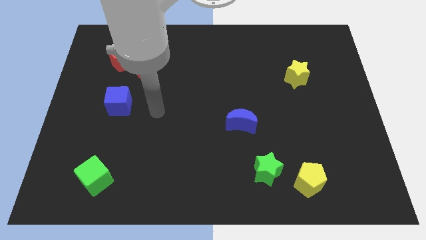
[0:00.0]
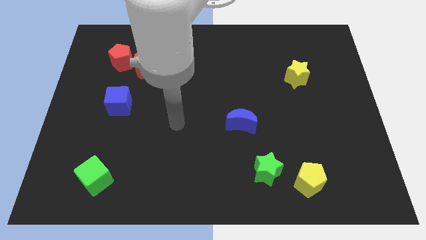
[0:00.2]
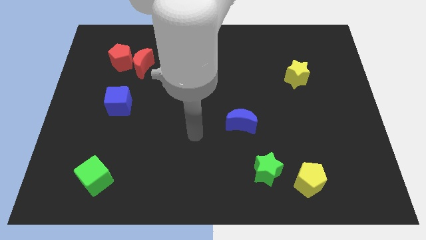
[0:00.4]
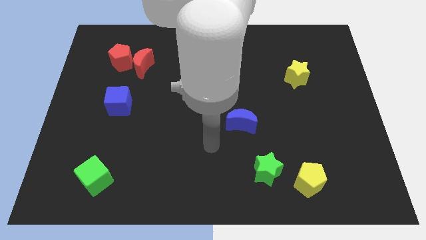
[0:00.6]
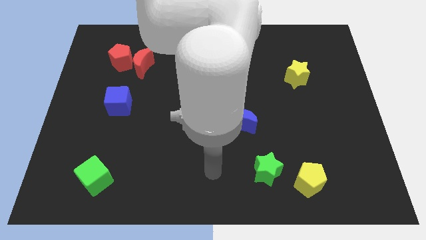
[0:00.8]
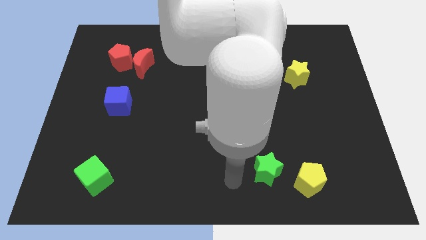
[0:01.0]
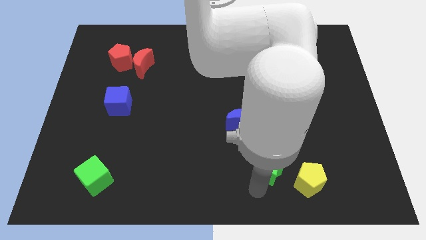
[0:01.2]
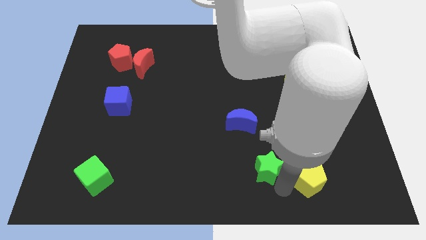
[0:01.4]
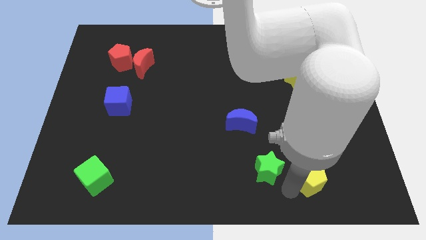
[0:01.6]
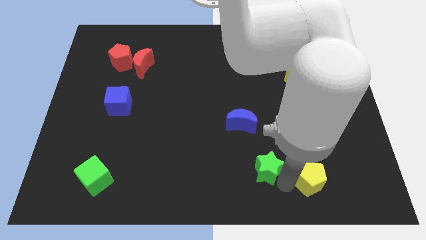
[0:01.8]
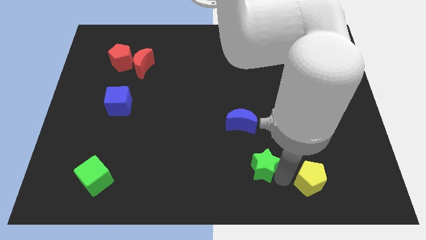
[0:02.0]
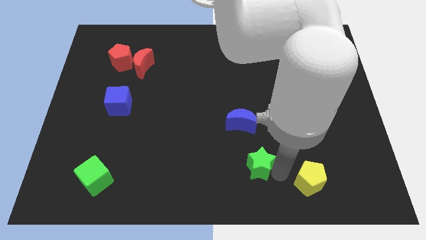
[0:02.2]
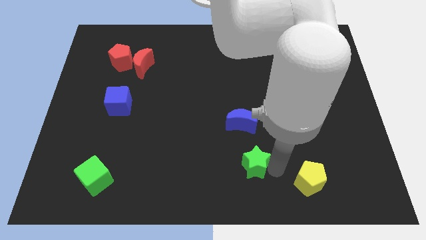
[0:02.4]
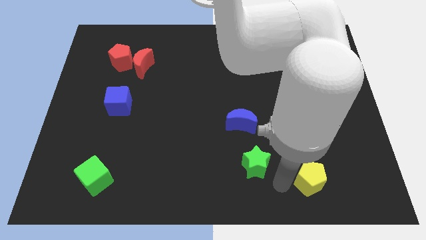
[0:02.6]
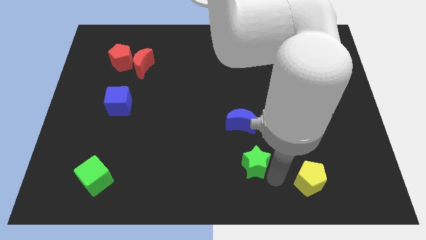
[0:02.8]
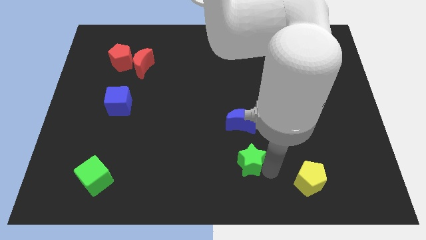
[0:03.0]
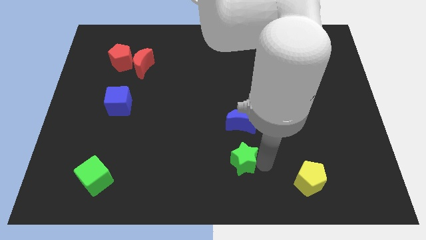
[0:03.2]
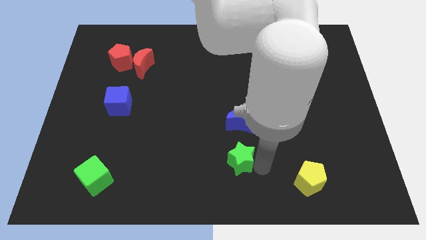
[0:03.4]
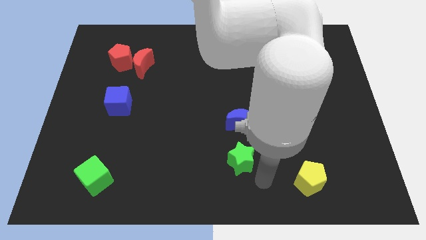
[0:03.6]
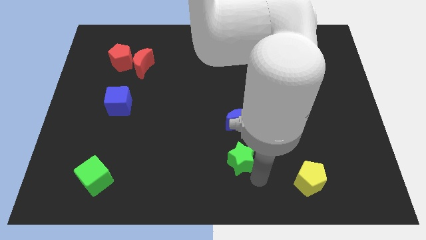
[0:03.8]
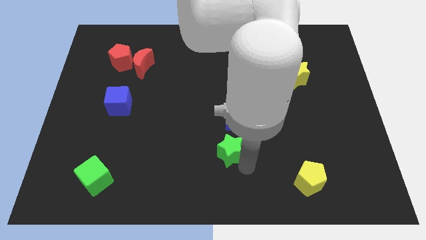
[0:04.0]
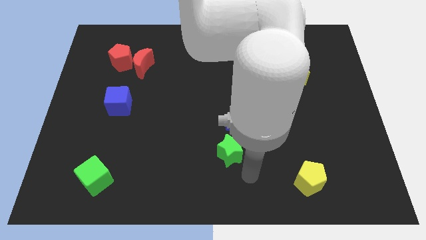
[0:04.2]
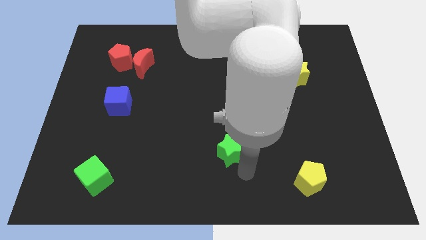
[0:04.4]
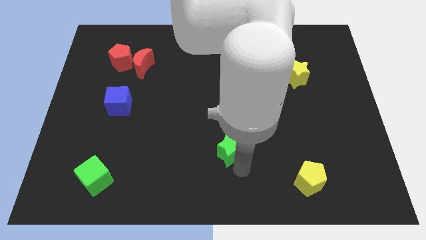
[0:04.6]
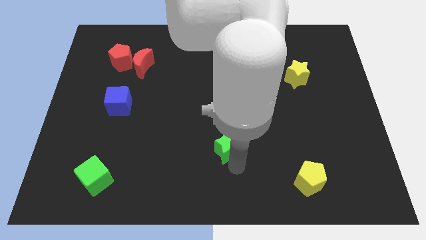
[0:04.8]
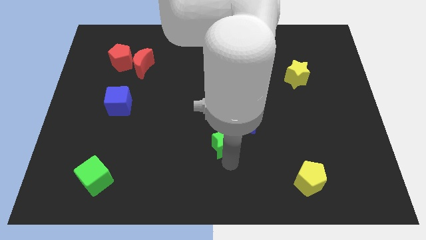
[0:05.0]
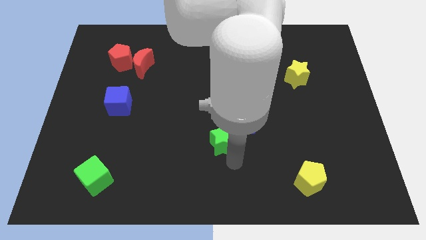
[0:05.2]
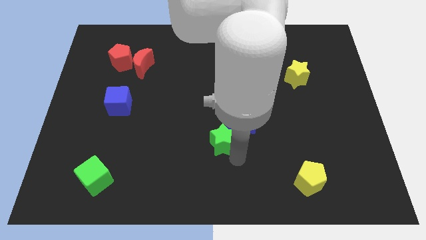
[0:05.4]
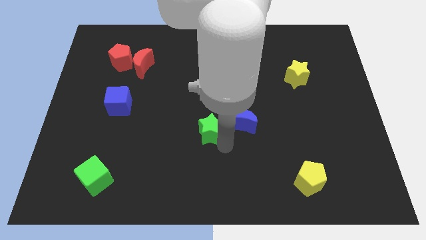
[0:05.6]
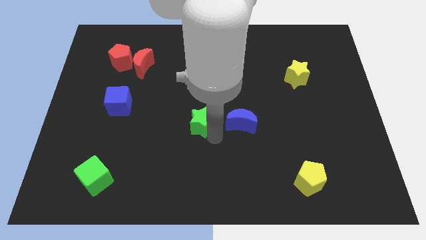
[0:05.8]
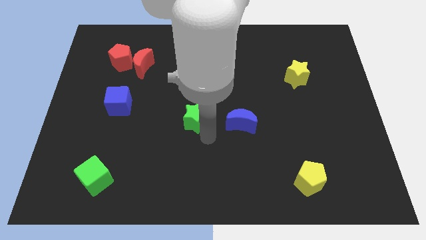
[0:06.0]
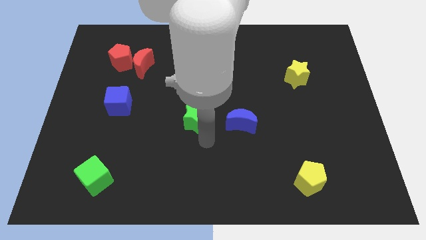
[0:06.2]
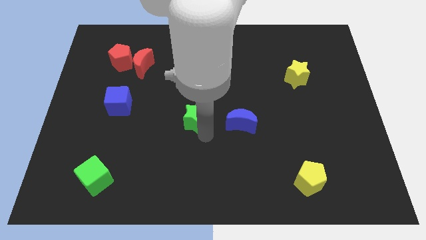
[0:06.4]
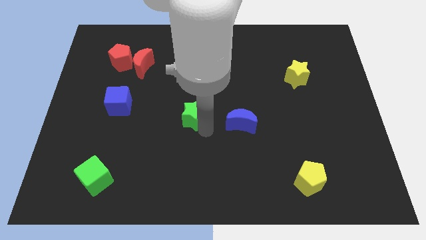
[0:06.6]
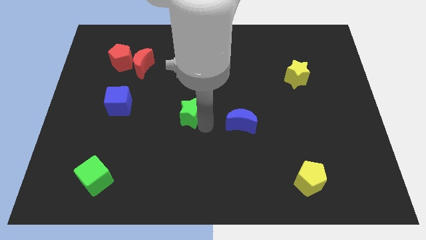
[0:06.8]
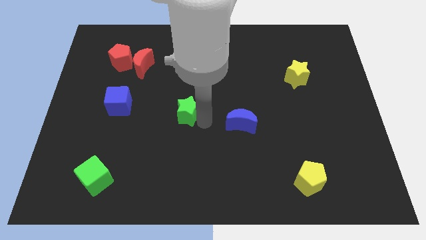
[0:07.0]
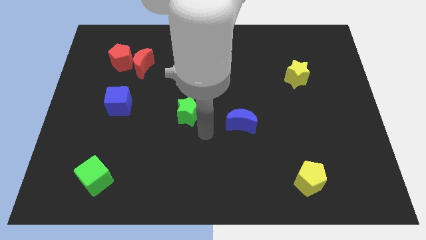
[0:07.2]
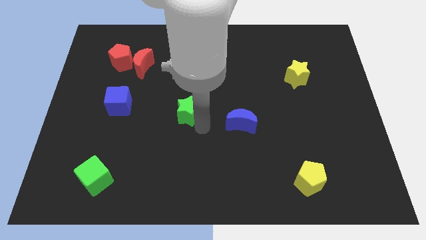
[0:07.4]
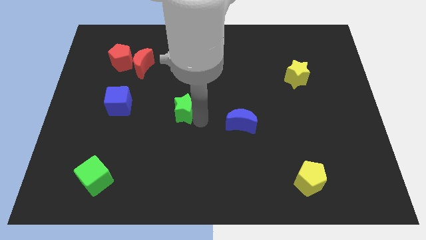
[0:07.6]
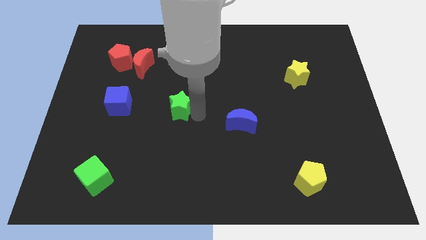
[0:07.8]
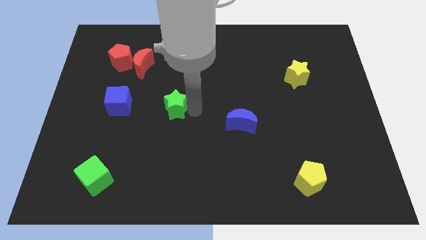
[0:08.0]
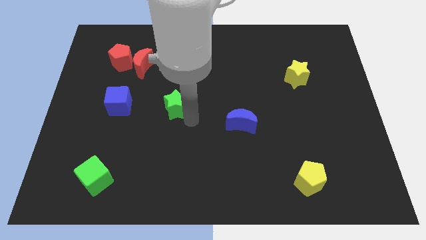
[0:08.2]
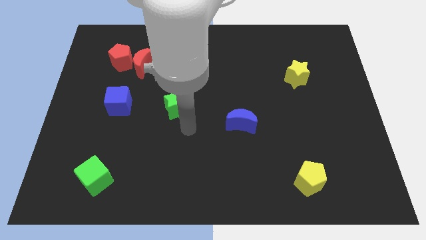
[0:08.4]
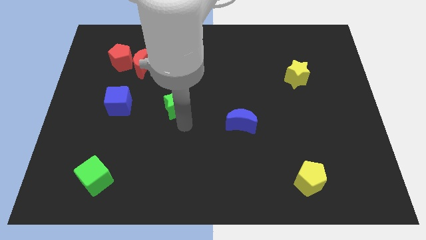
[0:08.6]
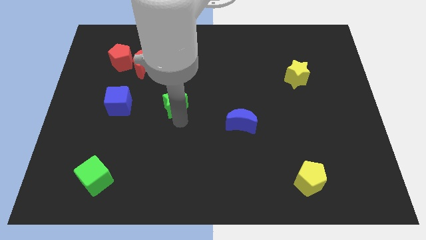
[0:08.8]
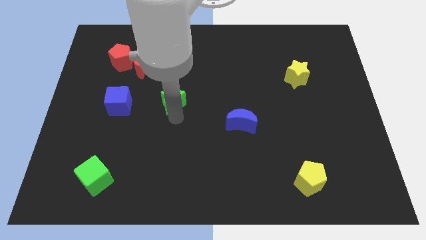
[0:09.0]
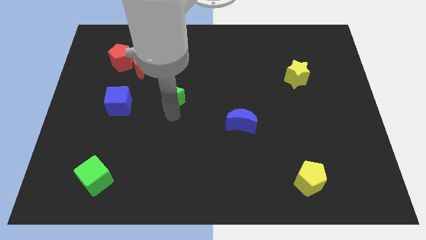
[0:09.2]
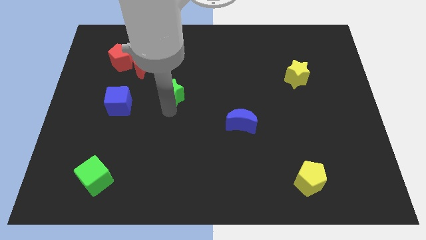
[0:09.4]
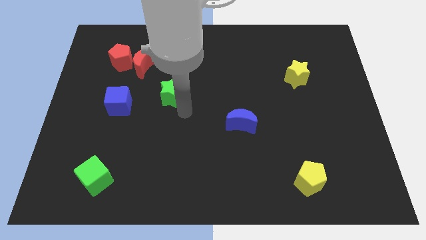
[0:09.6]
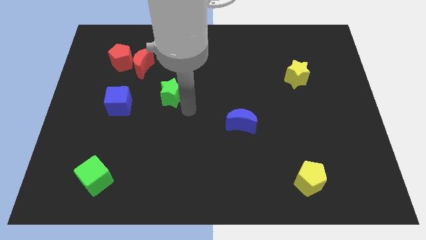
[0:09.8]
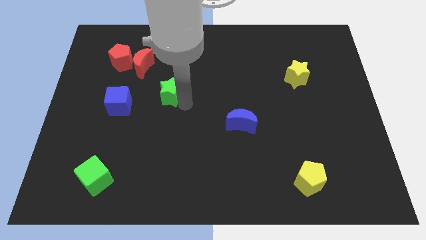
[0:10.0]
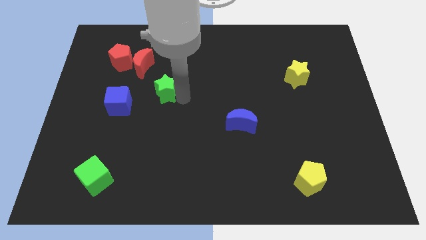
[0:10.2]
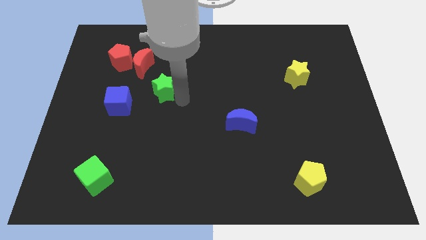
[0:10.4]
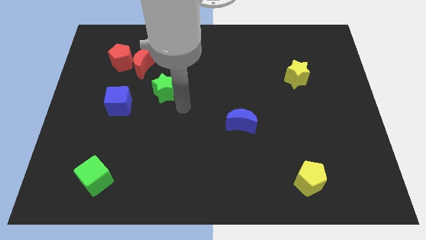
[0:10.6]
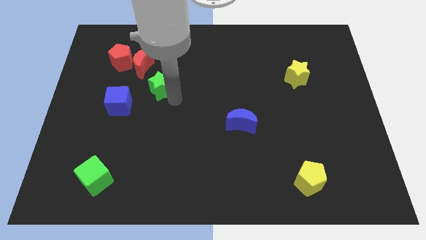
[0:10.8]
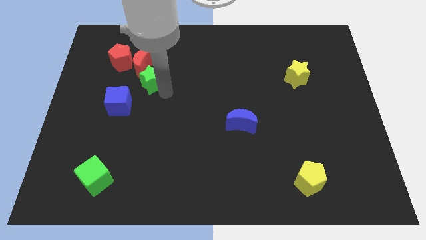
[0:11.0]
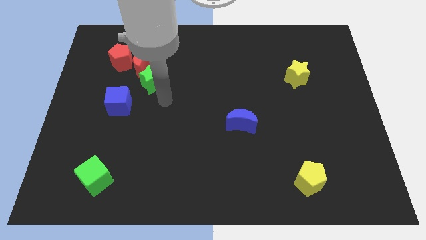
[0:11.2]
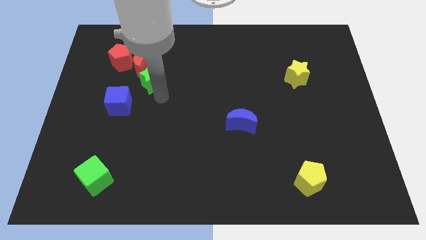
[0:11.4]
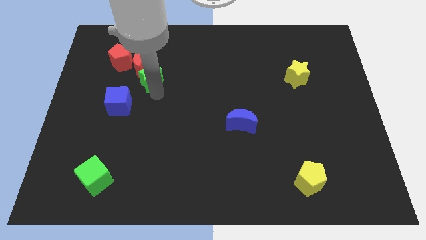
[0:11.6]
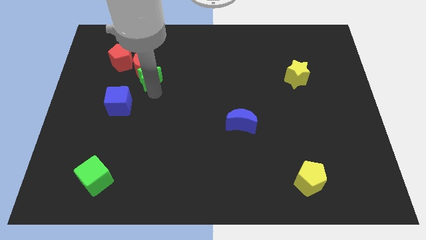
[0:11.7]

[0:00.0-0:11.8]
move the green star to the red moon

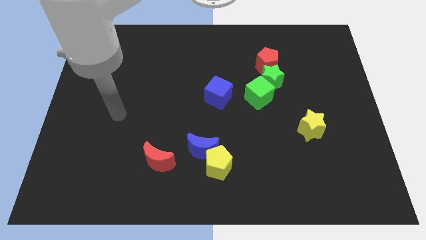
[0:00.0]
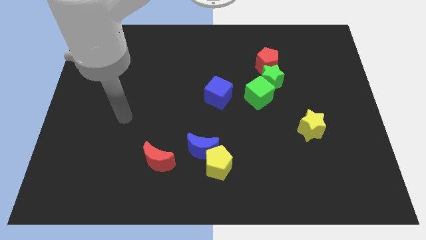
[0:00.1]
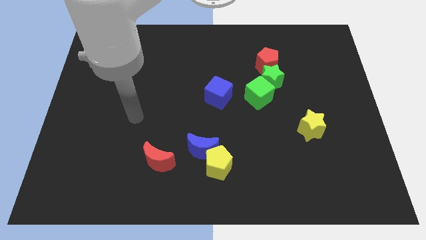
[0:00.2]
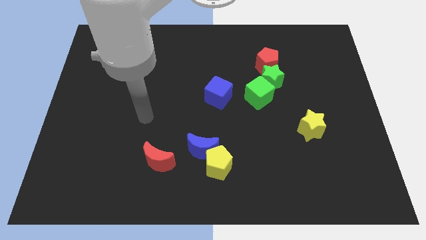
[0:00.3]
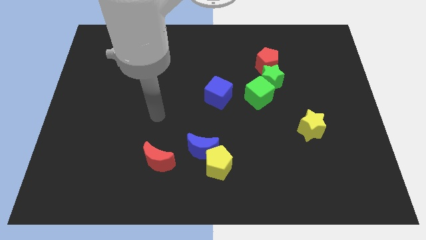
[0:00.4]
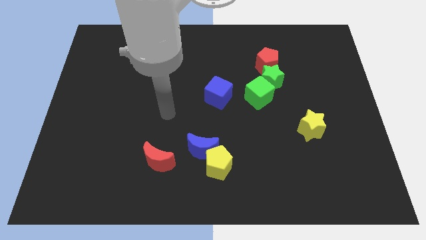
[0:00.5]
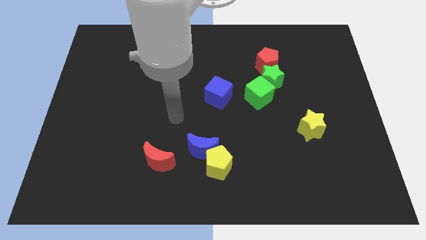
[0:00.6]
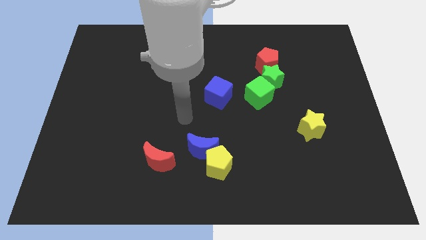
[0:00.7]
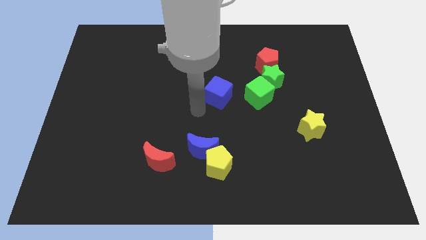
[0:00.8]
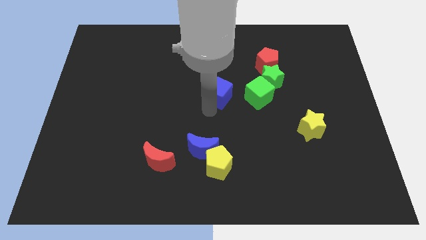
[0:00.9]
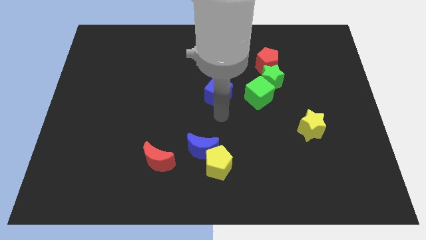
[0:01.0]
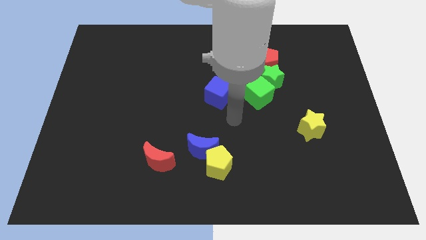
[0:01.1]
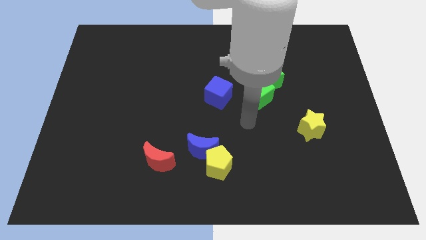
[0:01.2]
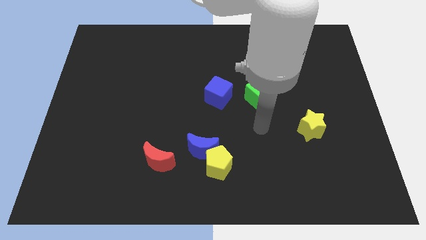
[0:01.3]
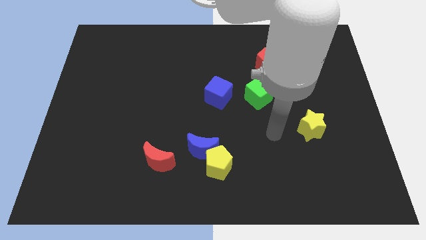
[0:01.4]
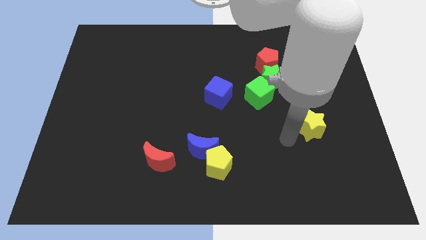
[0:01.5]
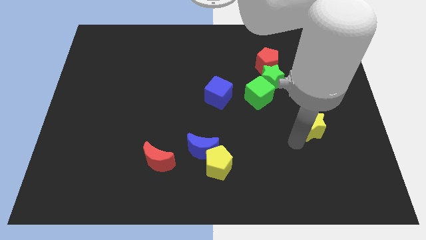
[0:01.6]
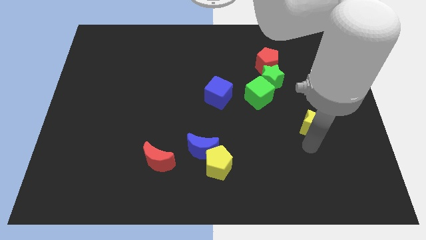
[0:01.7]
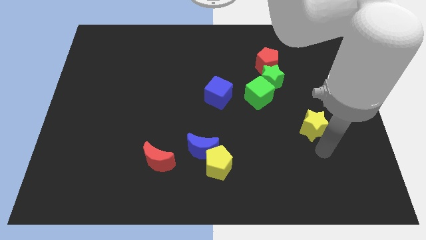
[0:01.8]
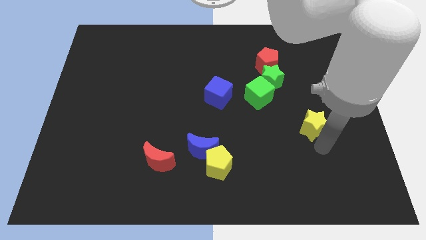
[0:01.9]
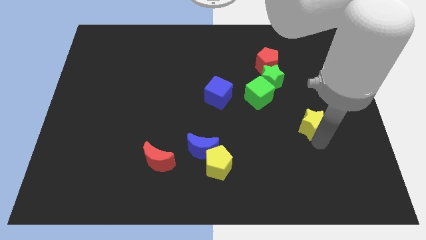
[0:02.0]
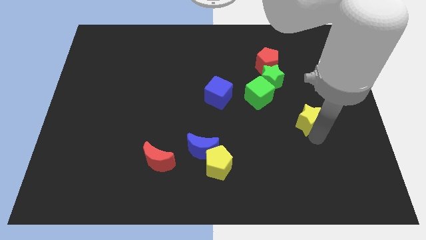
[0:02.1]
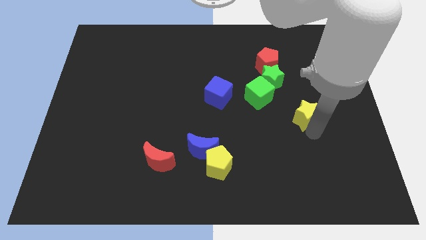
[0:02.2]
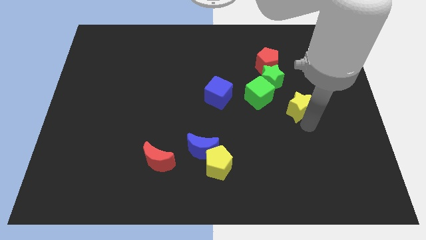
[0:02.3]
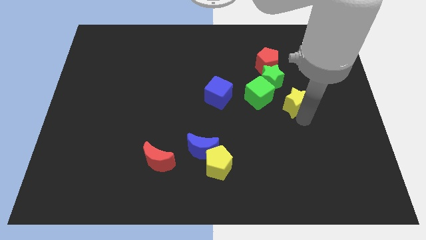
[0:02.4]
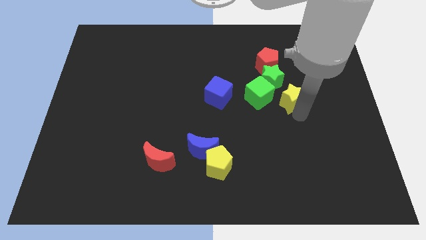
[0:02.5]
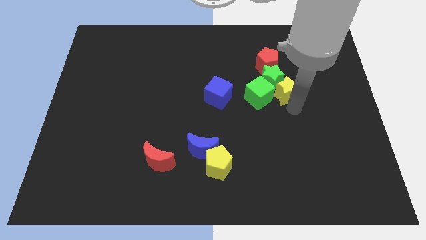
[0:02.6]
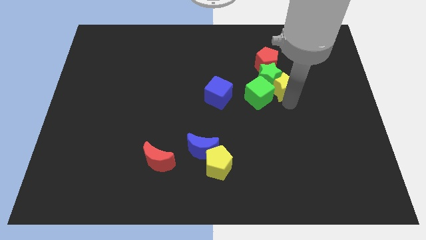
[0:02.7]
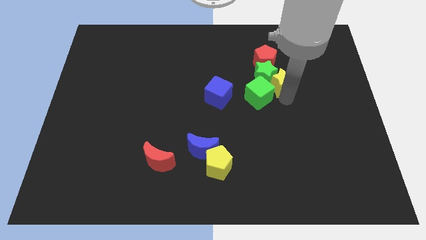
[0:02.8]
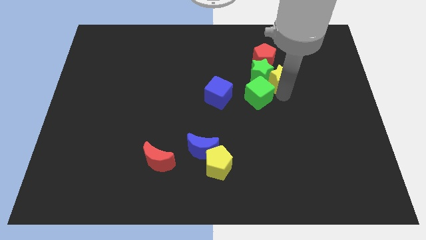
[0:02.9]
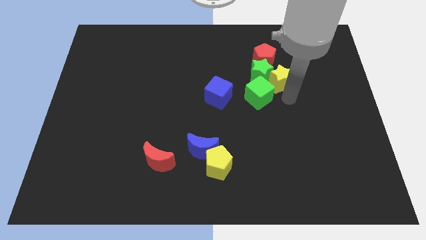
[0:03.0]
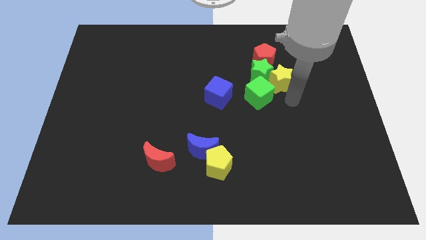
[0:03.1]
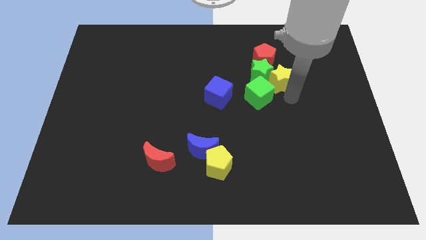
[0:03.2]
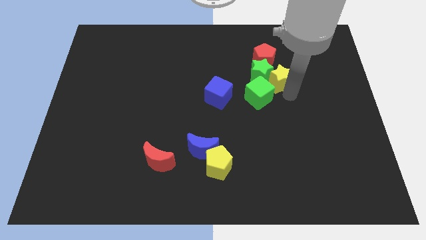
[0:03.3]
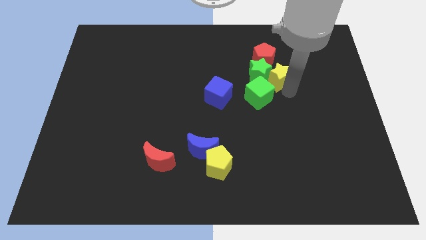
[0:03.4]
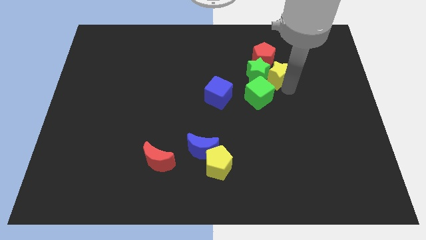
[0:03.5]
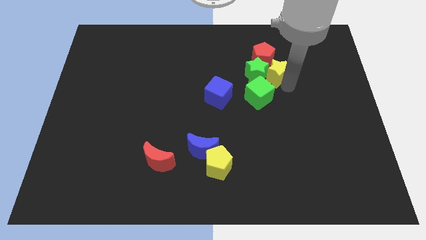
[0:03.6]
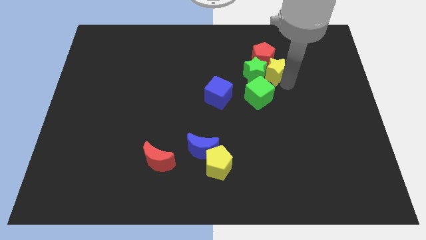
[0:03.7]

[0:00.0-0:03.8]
slide the yellow star towards the red pentagon
